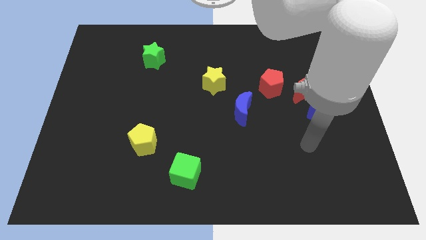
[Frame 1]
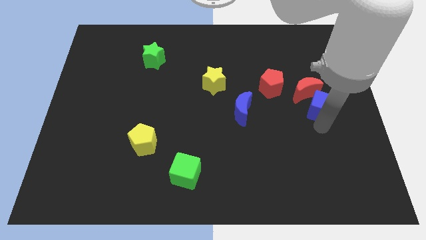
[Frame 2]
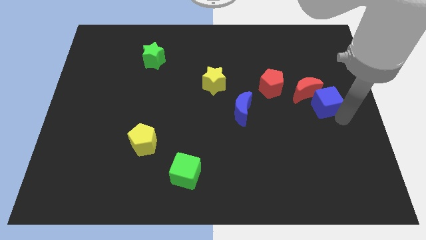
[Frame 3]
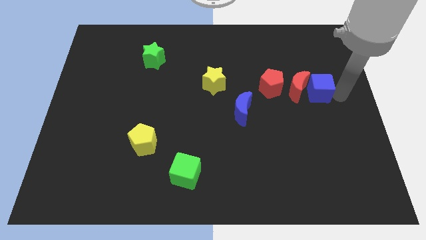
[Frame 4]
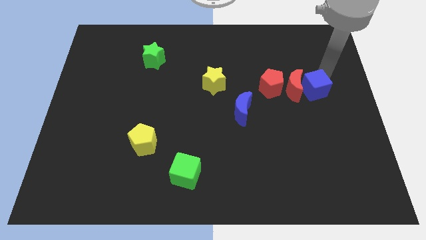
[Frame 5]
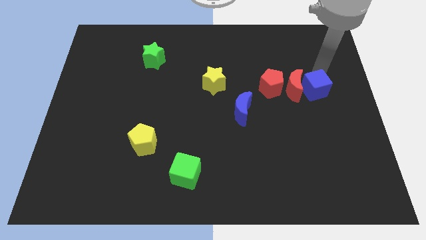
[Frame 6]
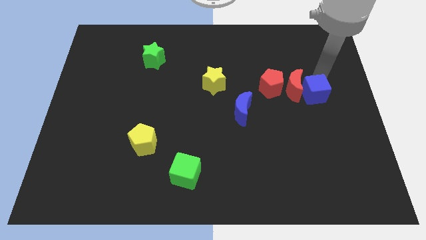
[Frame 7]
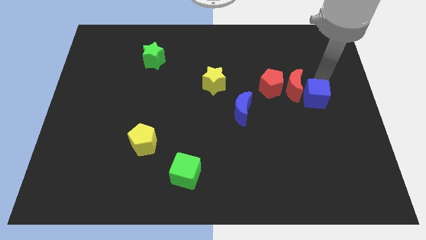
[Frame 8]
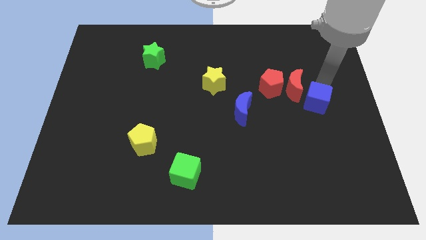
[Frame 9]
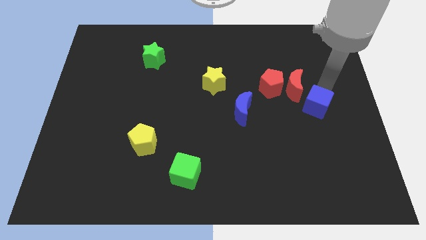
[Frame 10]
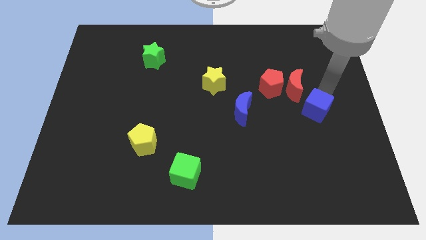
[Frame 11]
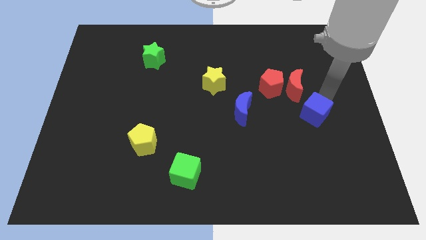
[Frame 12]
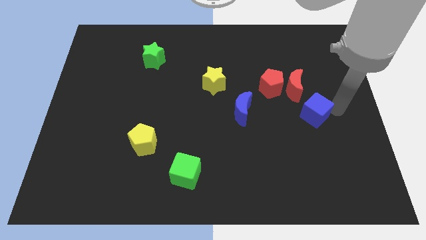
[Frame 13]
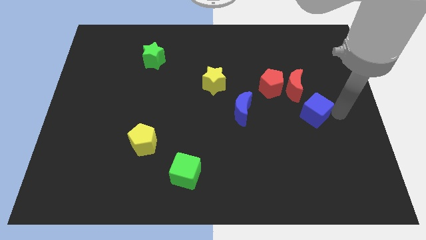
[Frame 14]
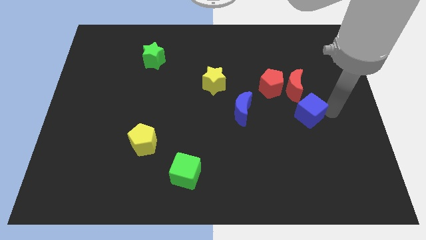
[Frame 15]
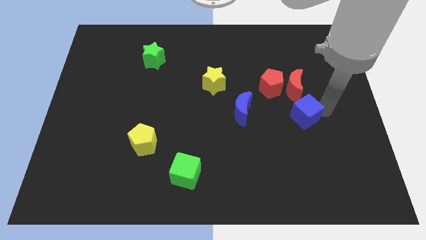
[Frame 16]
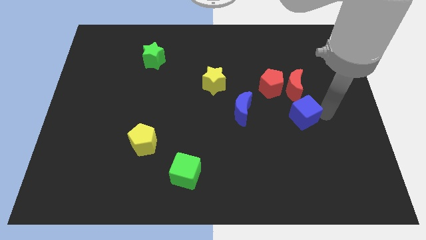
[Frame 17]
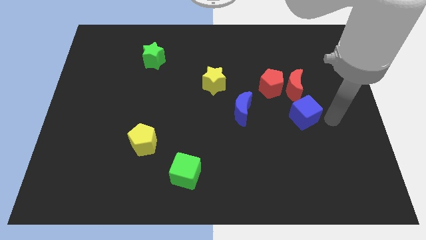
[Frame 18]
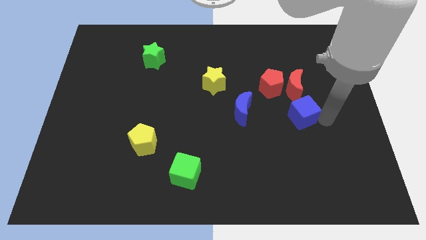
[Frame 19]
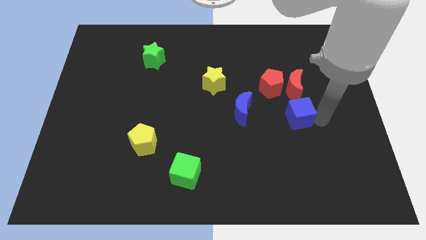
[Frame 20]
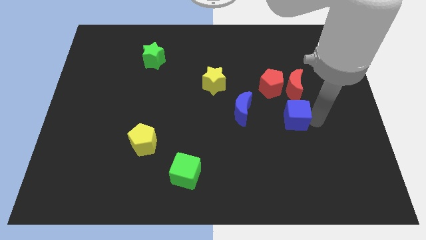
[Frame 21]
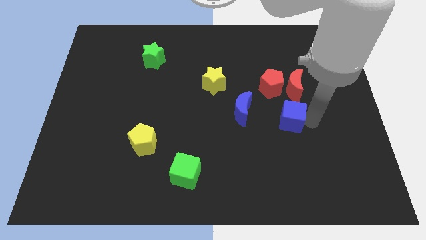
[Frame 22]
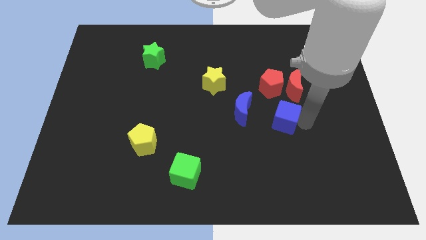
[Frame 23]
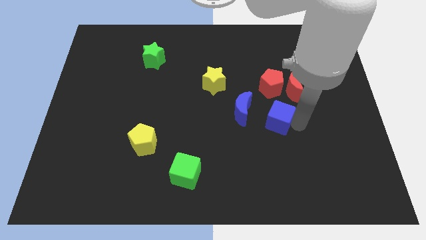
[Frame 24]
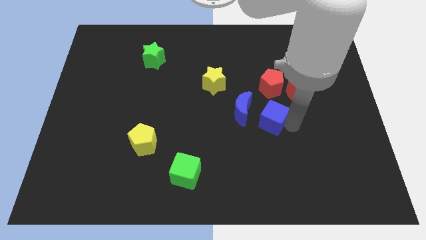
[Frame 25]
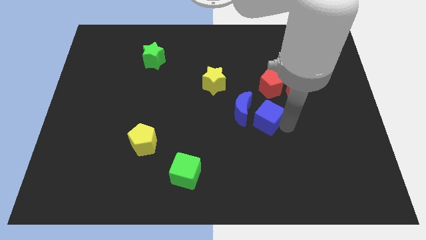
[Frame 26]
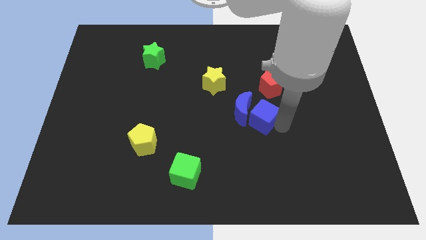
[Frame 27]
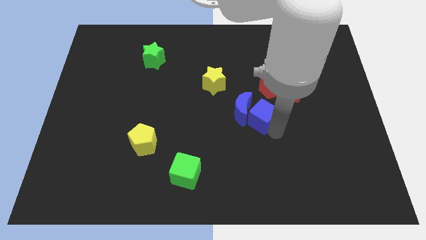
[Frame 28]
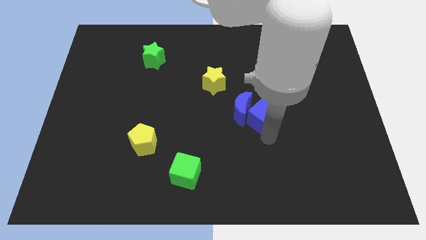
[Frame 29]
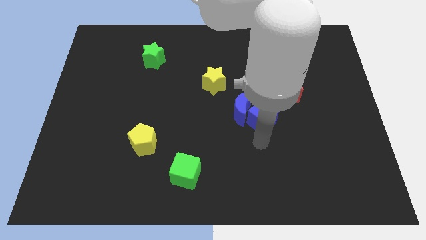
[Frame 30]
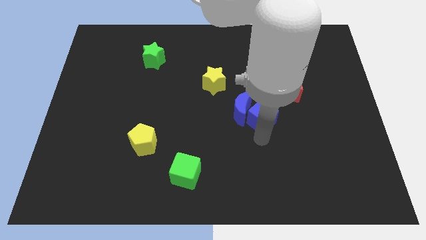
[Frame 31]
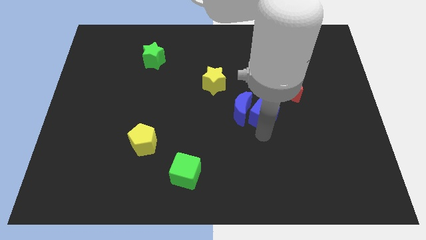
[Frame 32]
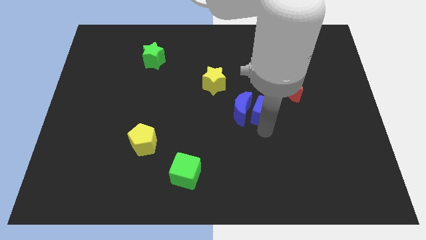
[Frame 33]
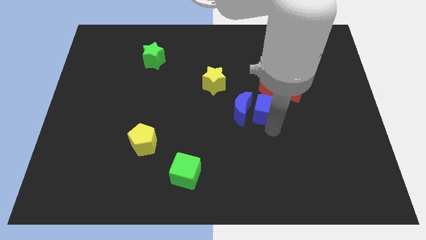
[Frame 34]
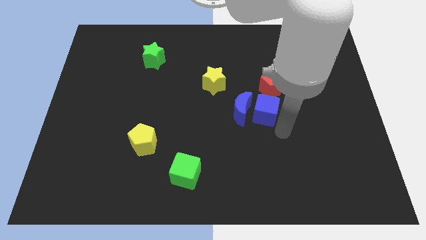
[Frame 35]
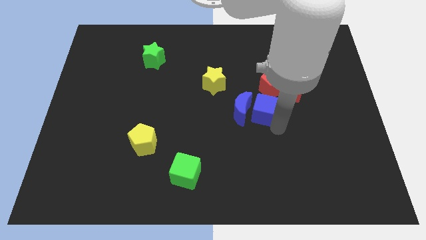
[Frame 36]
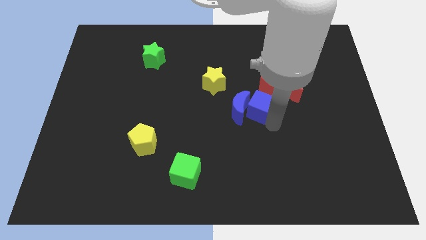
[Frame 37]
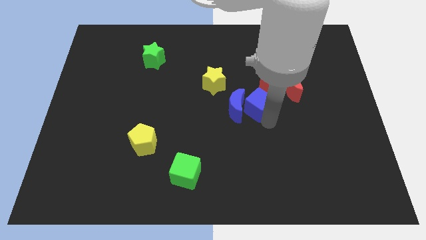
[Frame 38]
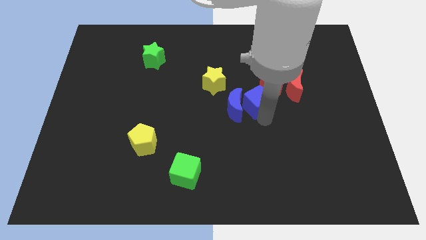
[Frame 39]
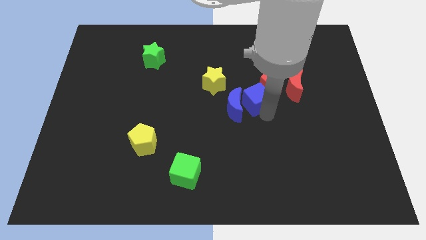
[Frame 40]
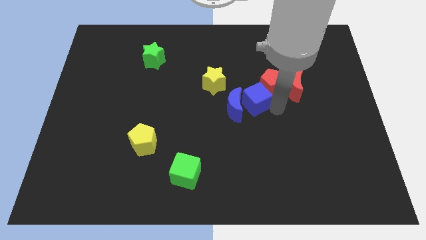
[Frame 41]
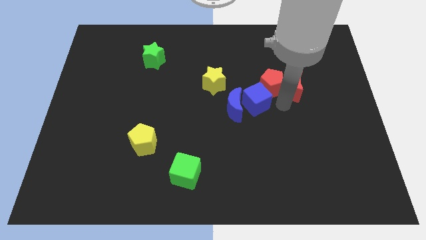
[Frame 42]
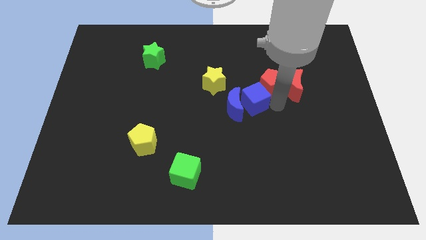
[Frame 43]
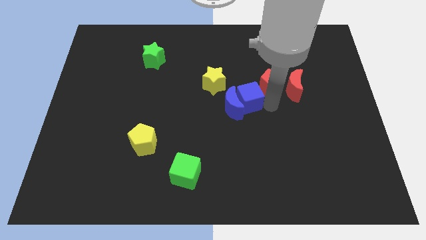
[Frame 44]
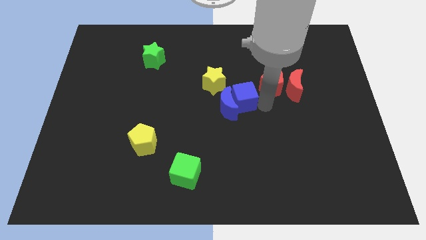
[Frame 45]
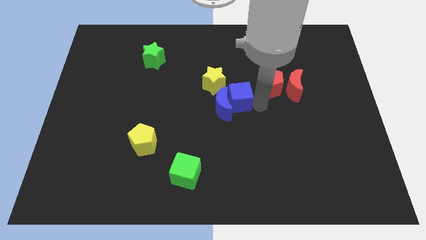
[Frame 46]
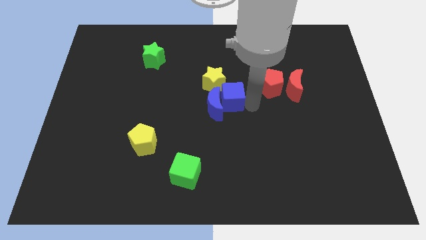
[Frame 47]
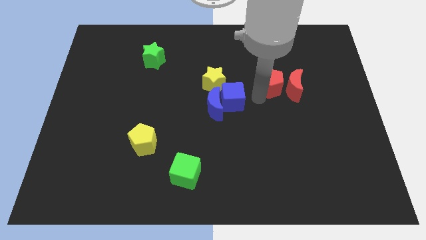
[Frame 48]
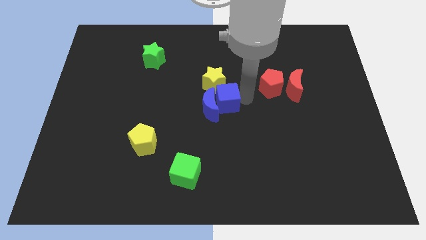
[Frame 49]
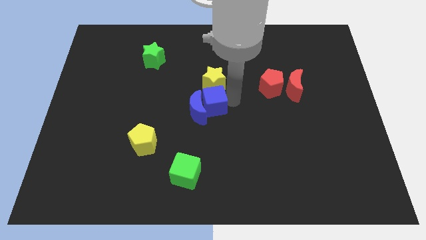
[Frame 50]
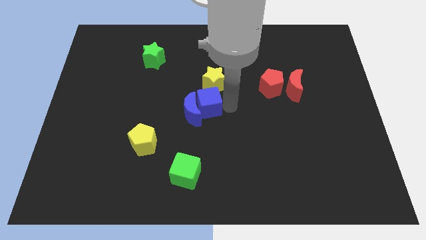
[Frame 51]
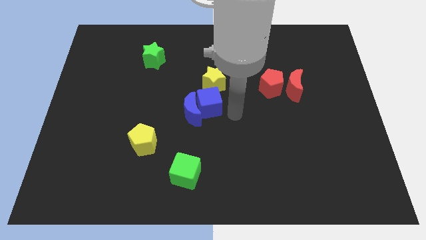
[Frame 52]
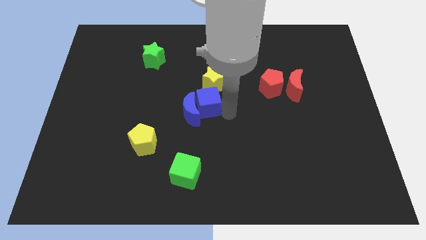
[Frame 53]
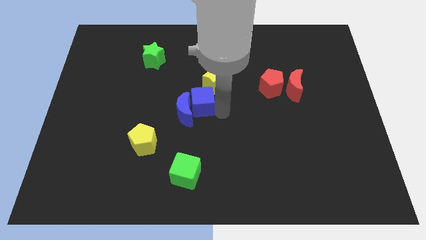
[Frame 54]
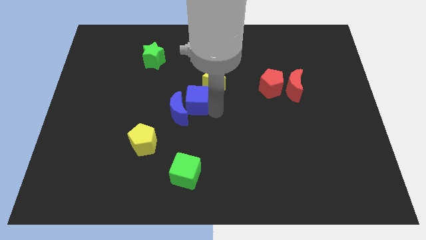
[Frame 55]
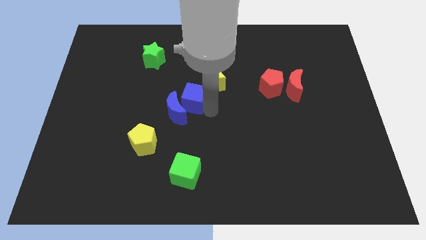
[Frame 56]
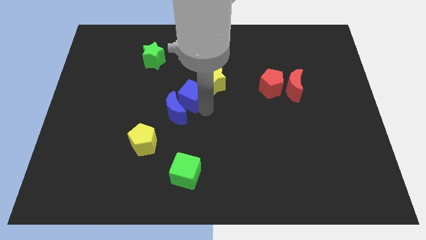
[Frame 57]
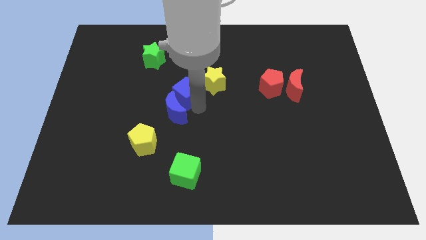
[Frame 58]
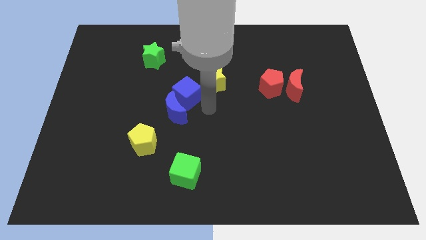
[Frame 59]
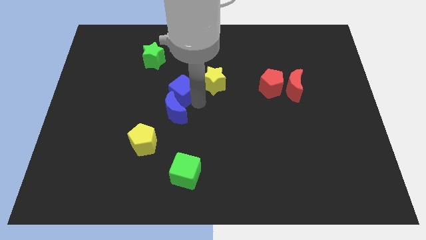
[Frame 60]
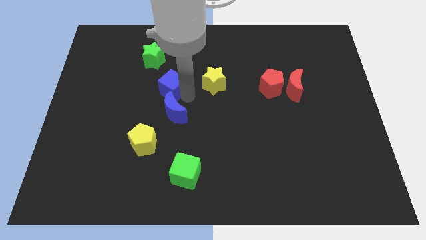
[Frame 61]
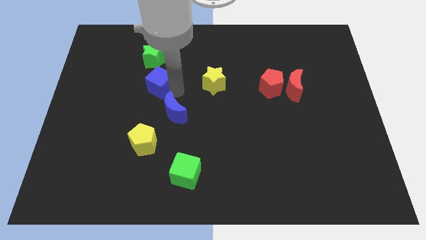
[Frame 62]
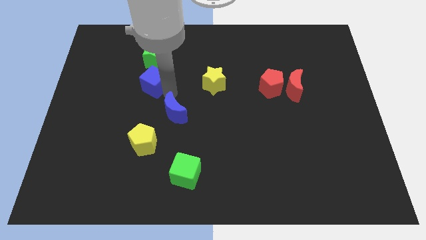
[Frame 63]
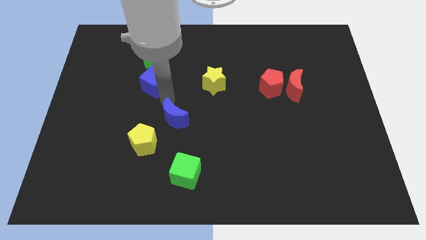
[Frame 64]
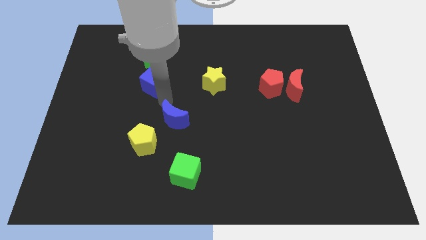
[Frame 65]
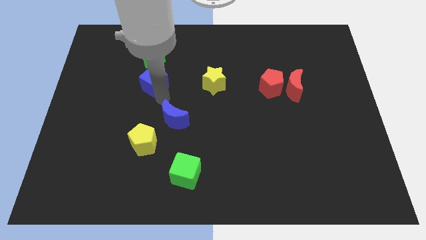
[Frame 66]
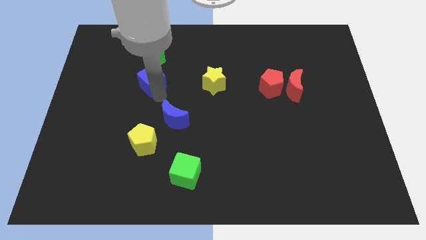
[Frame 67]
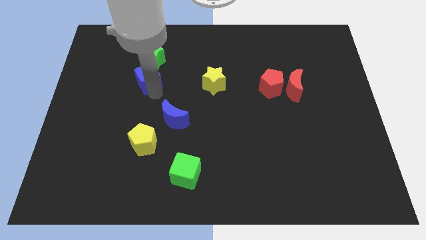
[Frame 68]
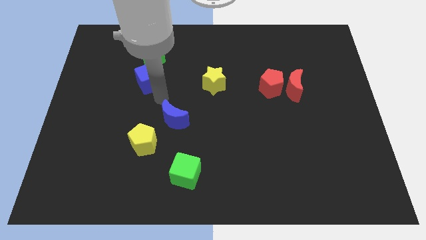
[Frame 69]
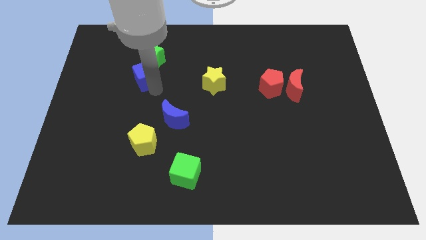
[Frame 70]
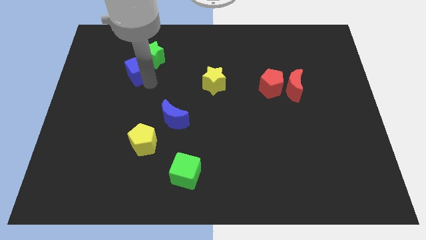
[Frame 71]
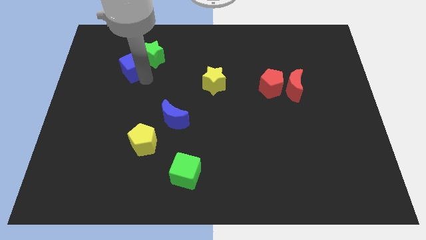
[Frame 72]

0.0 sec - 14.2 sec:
put the blue cube to the left side of the green star
